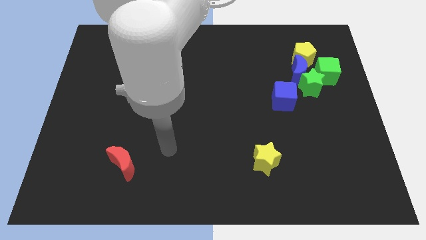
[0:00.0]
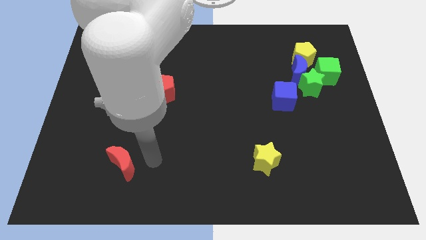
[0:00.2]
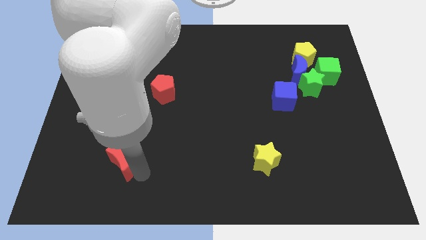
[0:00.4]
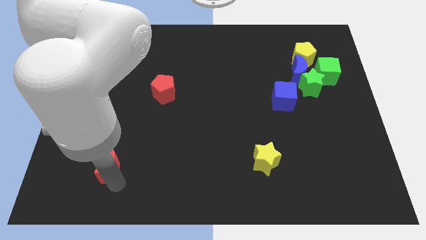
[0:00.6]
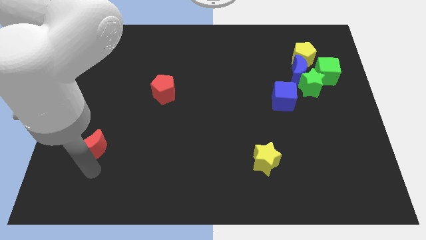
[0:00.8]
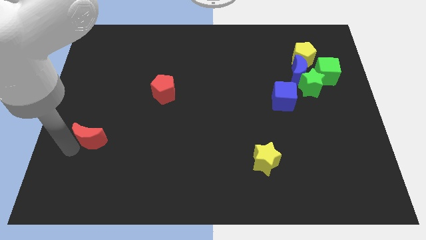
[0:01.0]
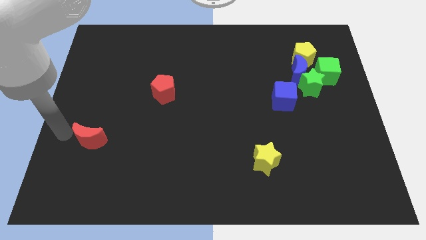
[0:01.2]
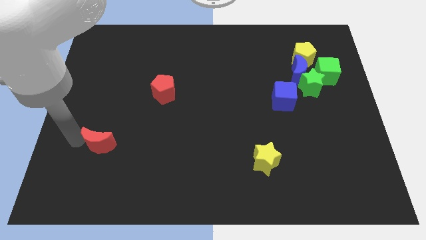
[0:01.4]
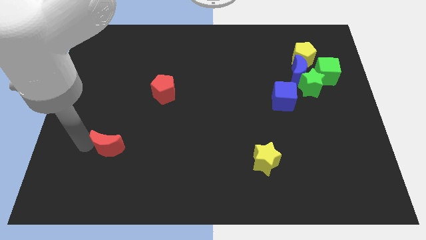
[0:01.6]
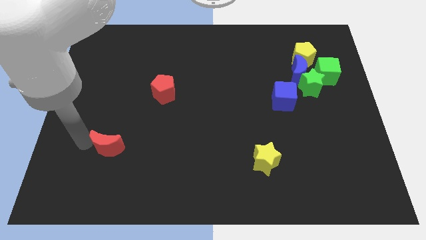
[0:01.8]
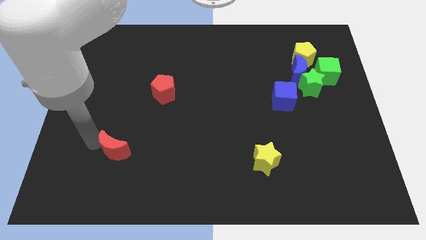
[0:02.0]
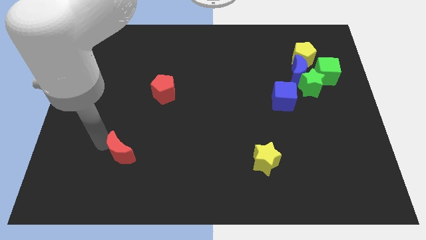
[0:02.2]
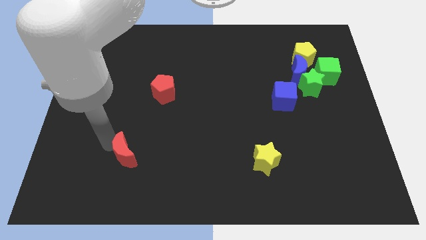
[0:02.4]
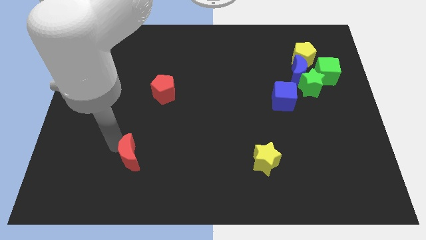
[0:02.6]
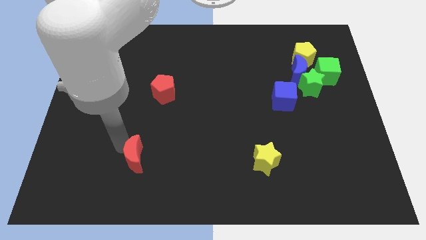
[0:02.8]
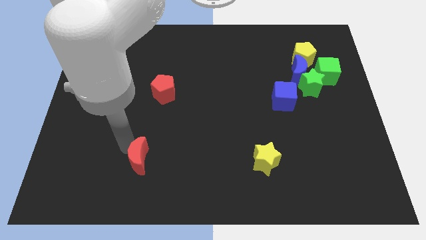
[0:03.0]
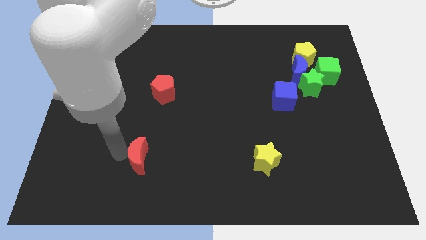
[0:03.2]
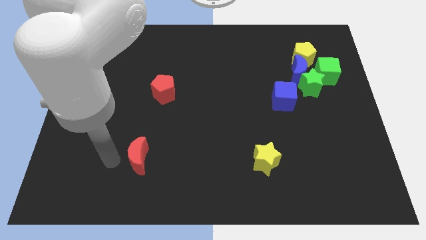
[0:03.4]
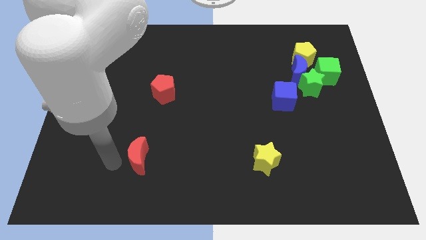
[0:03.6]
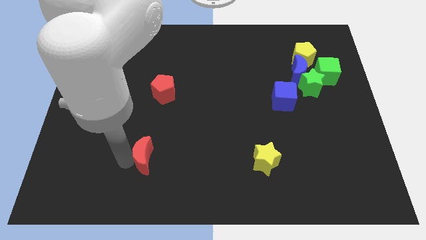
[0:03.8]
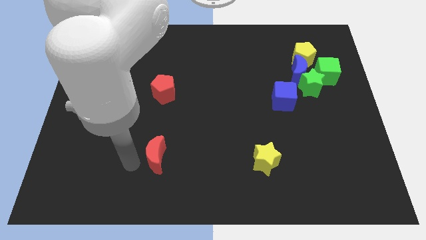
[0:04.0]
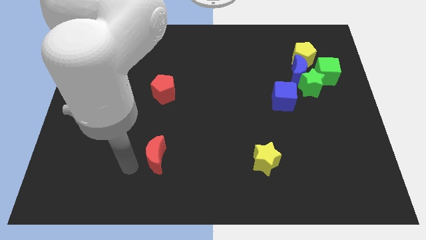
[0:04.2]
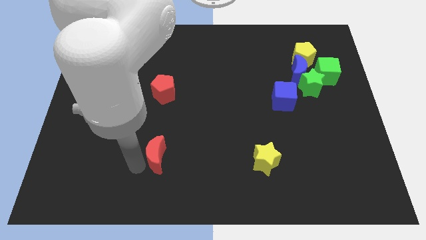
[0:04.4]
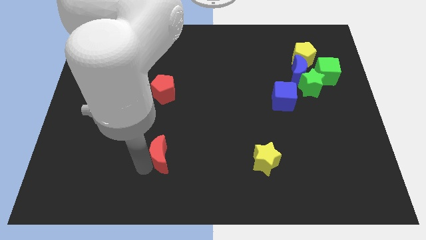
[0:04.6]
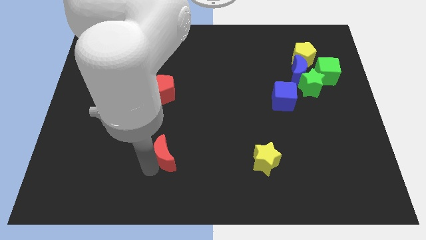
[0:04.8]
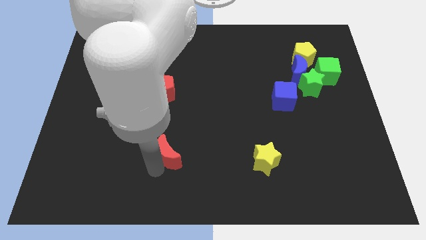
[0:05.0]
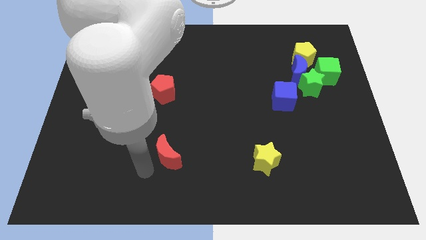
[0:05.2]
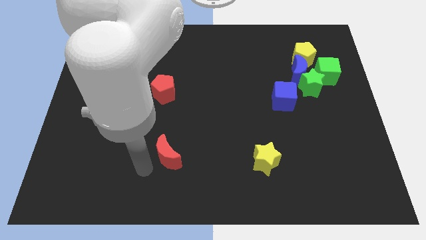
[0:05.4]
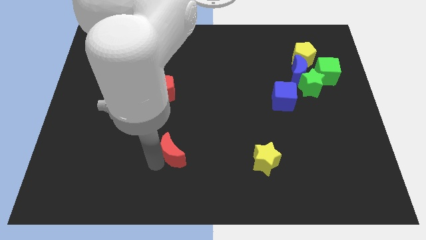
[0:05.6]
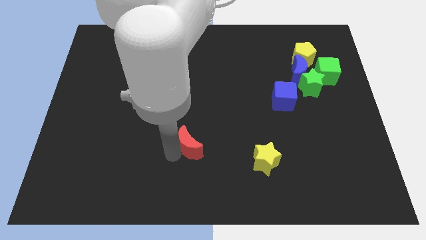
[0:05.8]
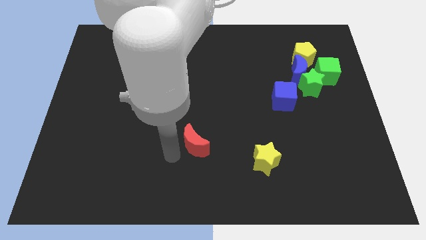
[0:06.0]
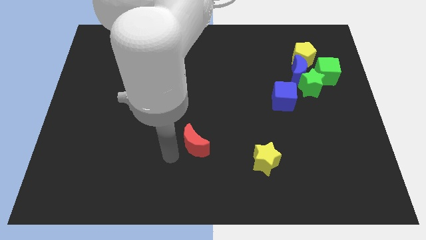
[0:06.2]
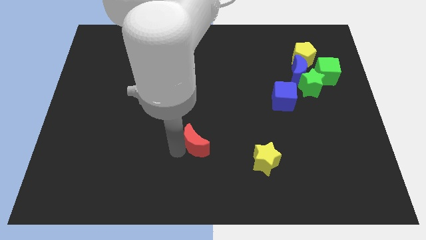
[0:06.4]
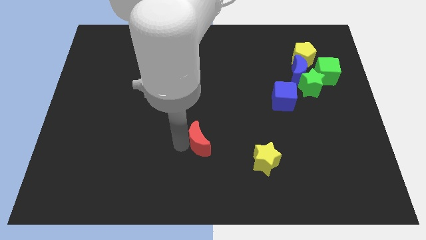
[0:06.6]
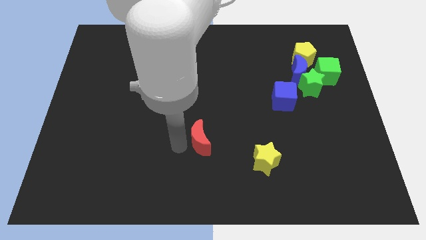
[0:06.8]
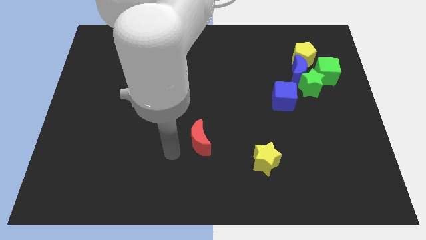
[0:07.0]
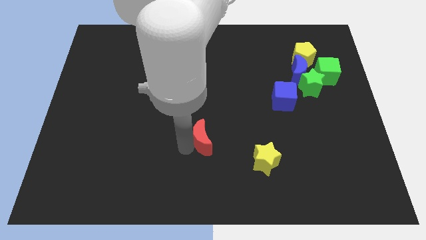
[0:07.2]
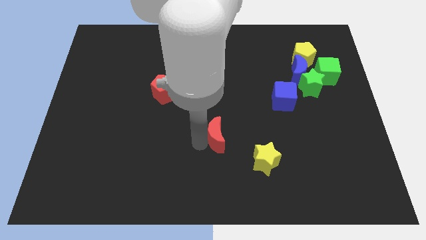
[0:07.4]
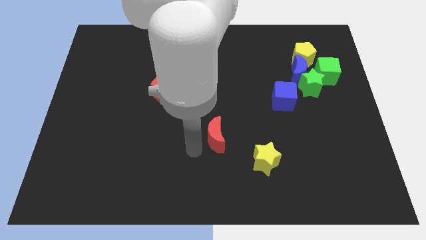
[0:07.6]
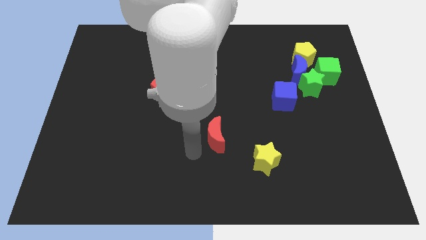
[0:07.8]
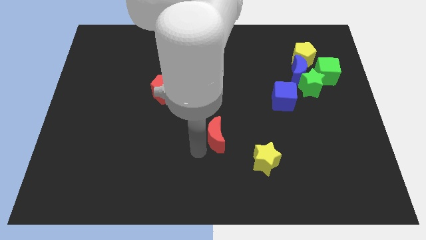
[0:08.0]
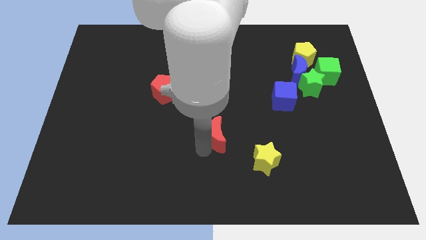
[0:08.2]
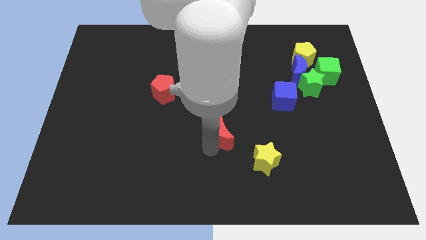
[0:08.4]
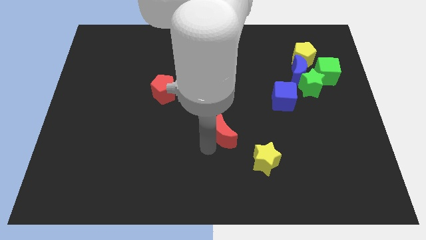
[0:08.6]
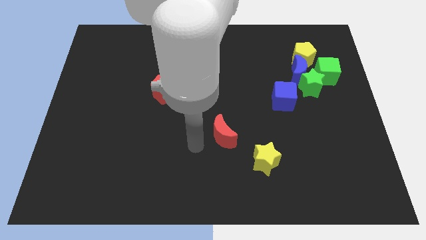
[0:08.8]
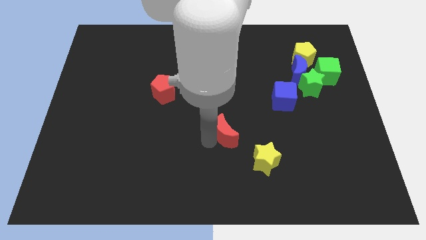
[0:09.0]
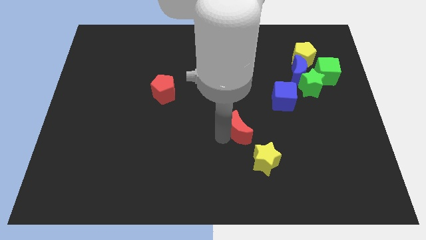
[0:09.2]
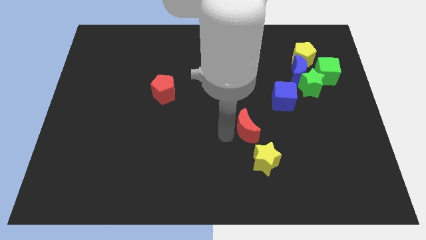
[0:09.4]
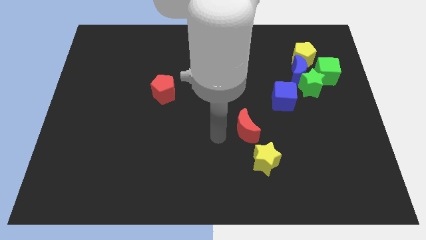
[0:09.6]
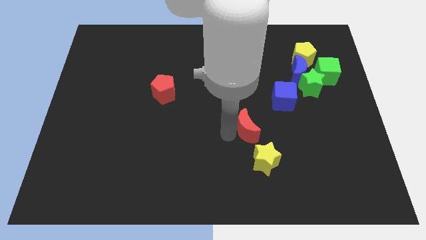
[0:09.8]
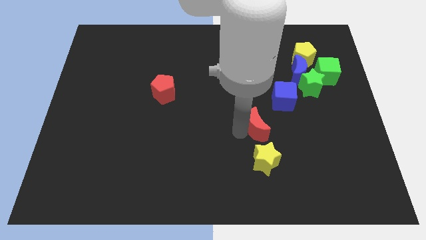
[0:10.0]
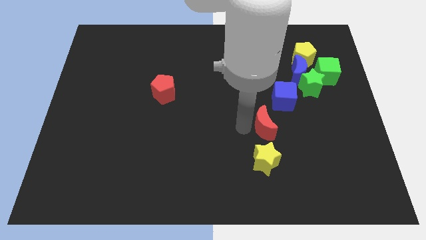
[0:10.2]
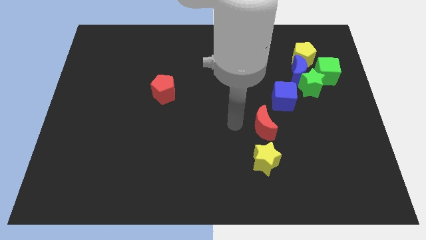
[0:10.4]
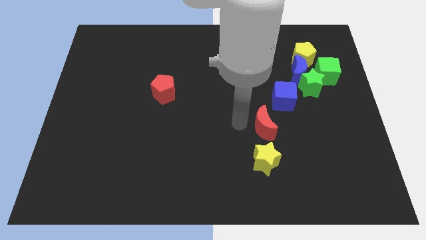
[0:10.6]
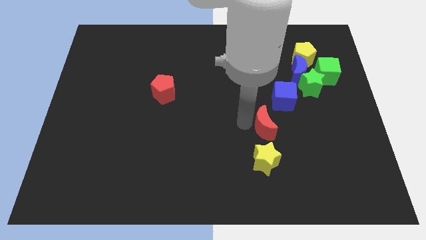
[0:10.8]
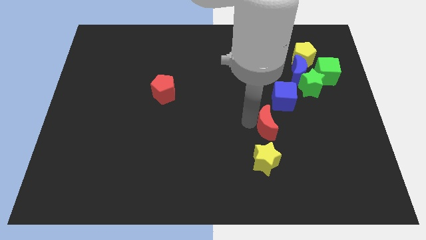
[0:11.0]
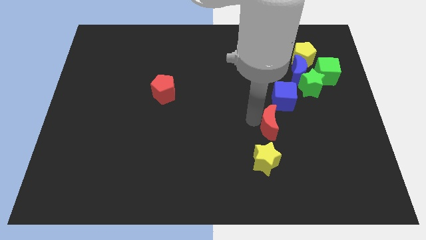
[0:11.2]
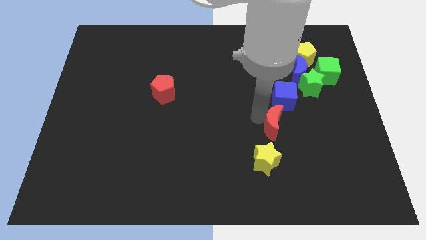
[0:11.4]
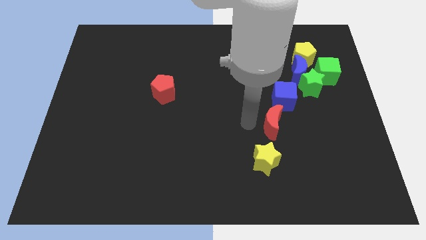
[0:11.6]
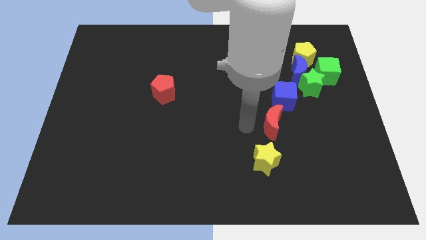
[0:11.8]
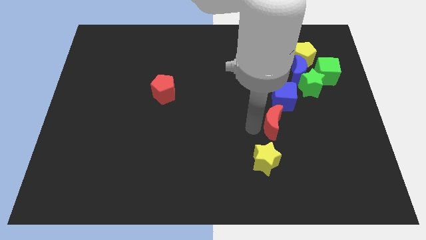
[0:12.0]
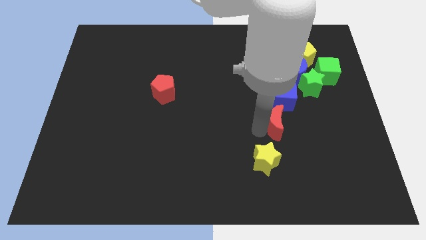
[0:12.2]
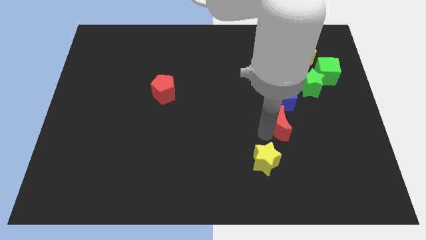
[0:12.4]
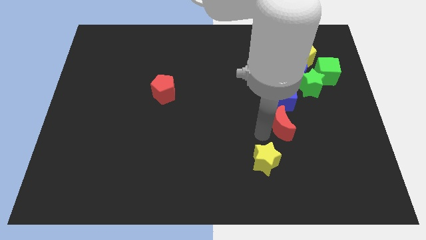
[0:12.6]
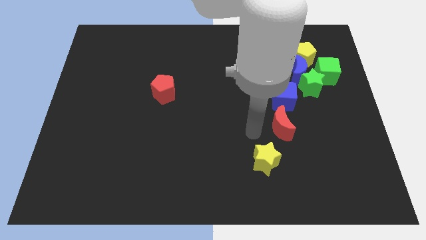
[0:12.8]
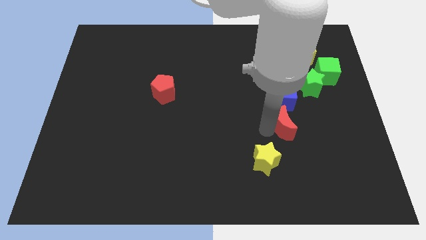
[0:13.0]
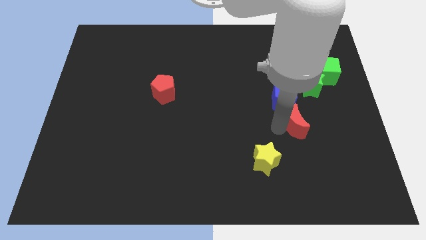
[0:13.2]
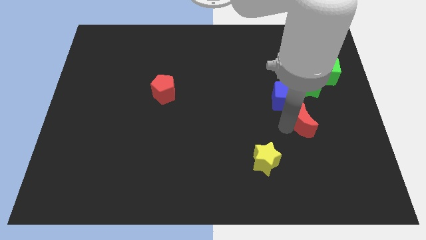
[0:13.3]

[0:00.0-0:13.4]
put the red moon to the bottom of the green star
